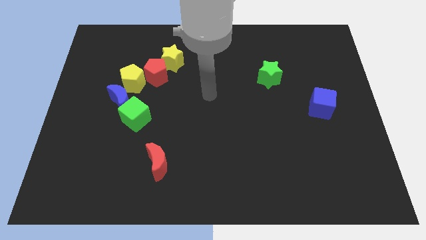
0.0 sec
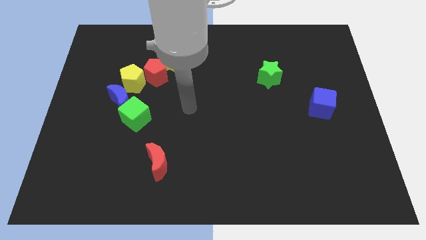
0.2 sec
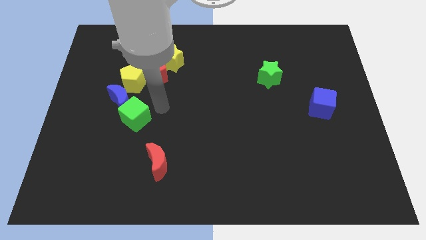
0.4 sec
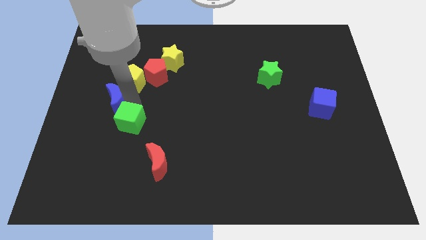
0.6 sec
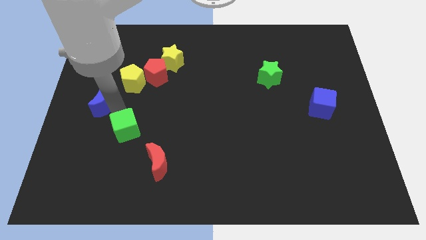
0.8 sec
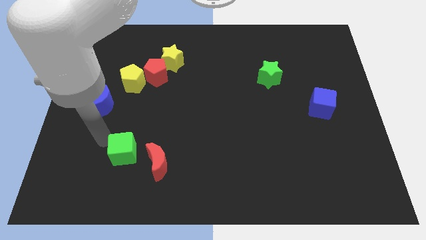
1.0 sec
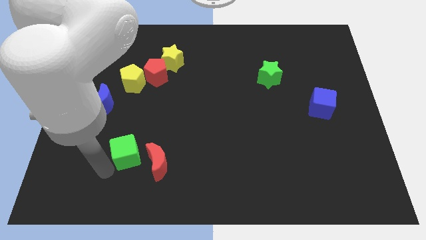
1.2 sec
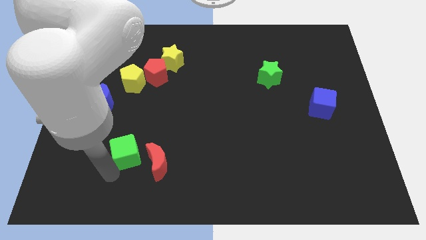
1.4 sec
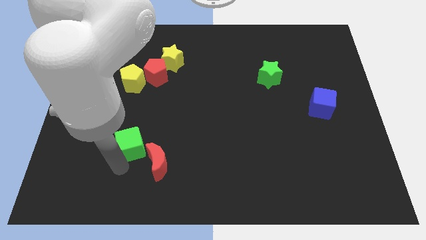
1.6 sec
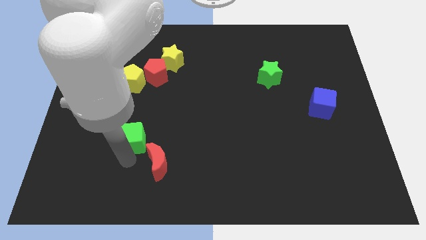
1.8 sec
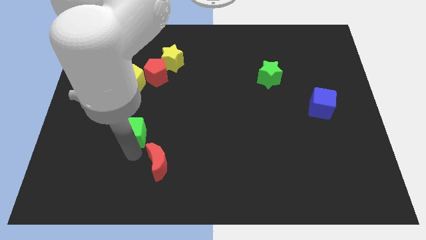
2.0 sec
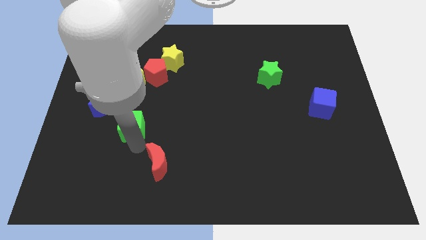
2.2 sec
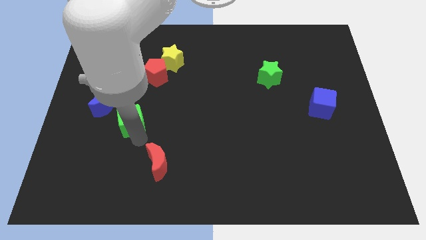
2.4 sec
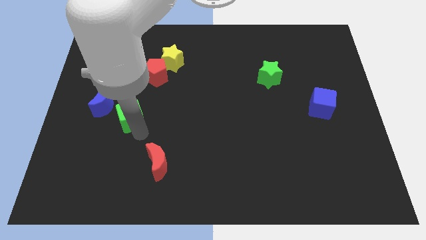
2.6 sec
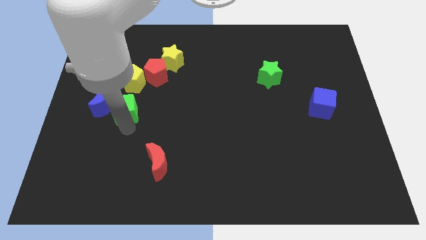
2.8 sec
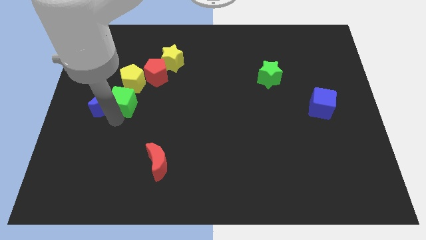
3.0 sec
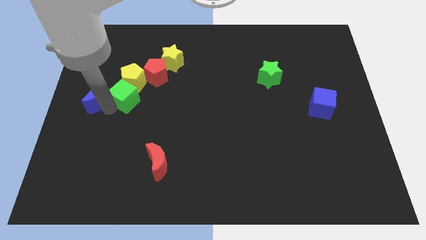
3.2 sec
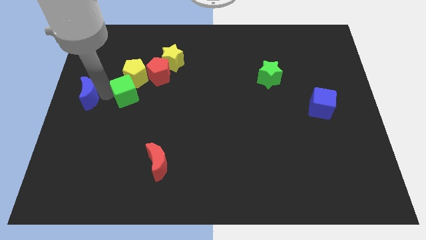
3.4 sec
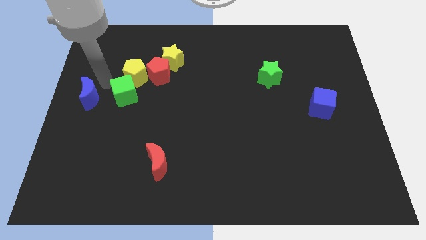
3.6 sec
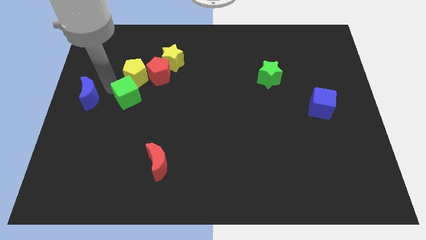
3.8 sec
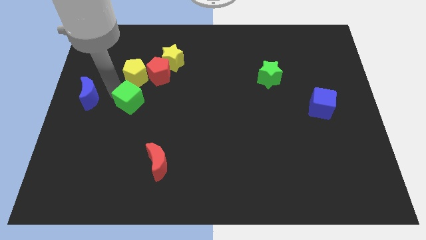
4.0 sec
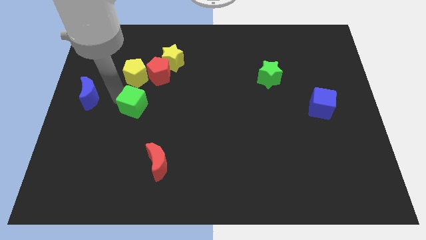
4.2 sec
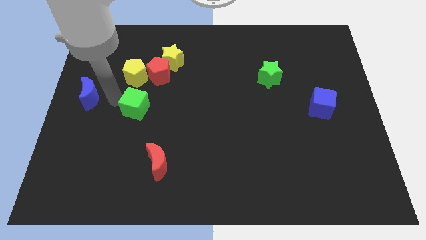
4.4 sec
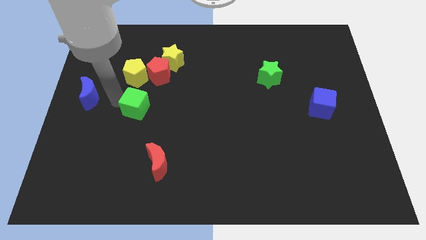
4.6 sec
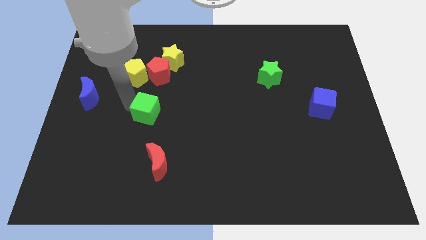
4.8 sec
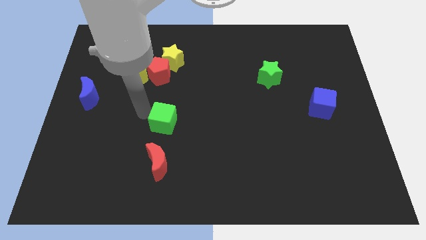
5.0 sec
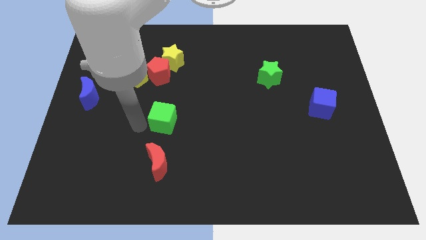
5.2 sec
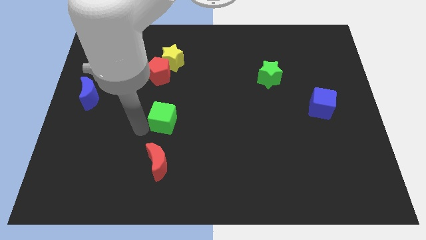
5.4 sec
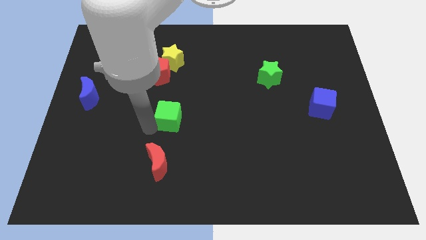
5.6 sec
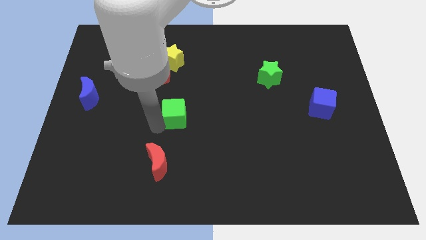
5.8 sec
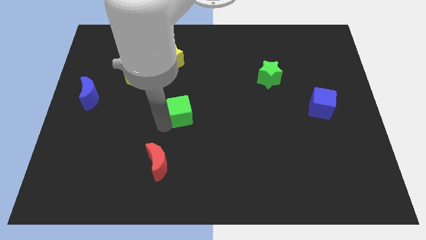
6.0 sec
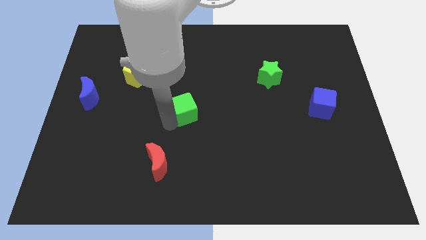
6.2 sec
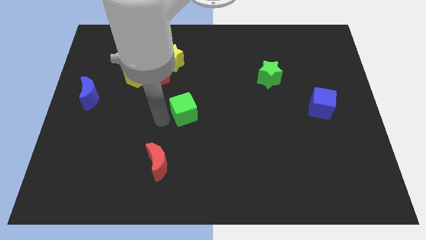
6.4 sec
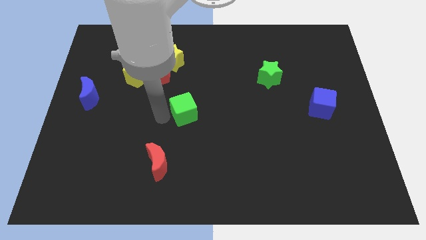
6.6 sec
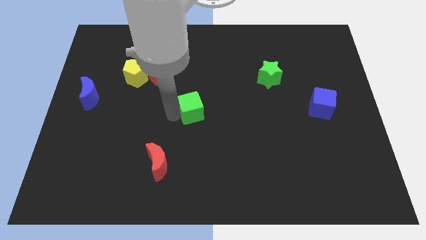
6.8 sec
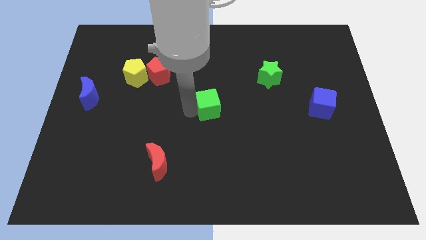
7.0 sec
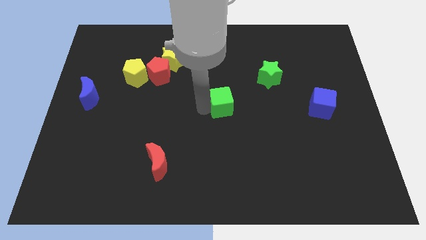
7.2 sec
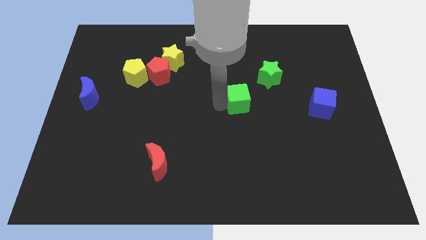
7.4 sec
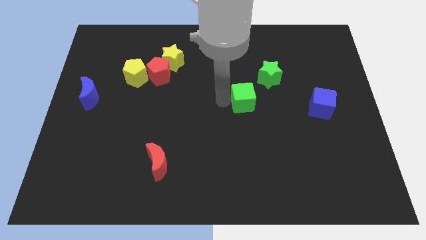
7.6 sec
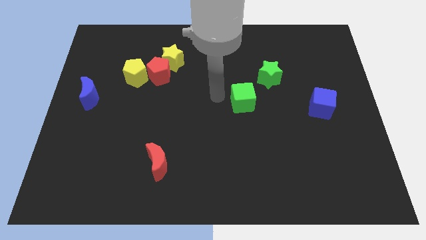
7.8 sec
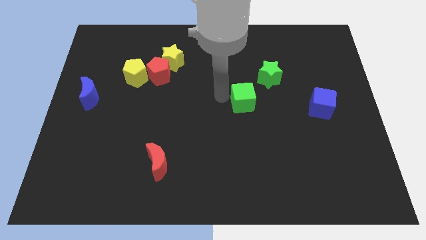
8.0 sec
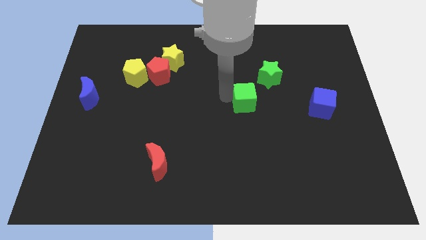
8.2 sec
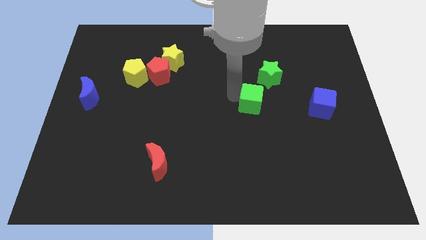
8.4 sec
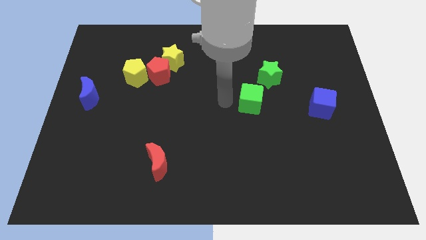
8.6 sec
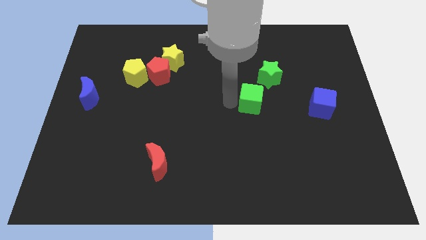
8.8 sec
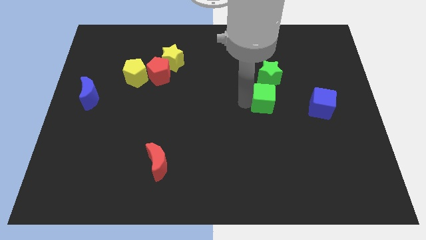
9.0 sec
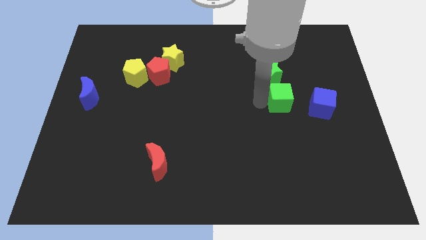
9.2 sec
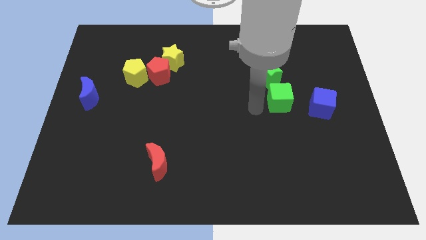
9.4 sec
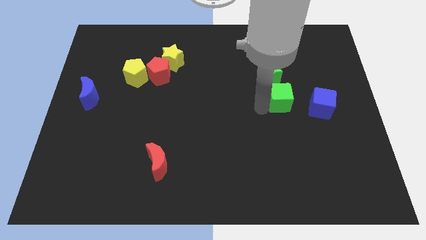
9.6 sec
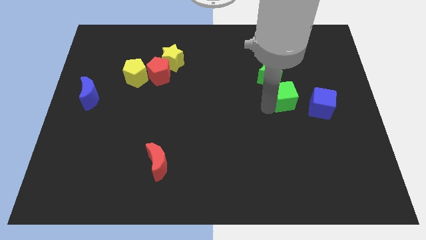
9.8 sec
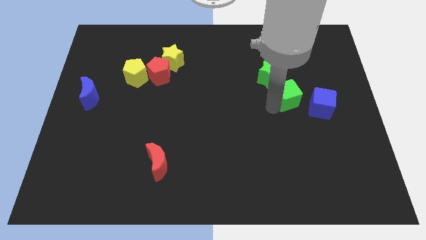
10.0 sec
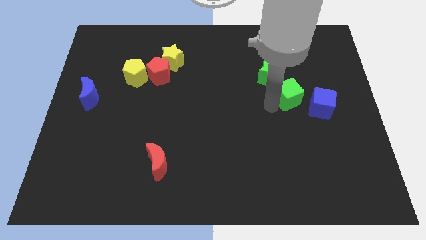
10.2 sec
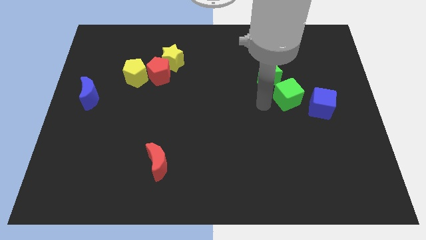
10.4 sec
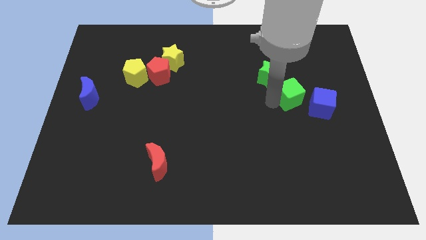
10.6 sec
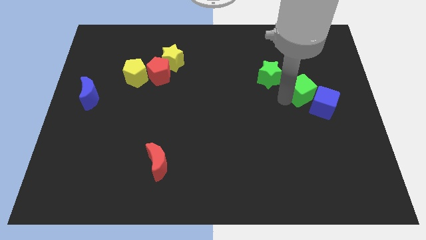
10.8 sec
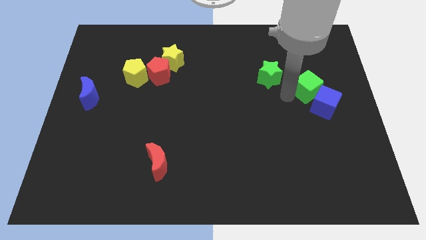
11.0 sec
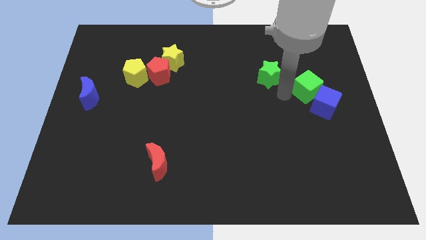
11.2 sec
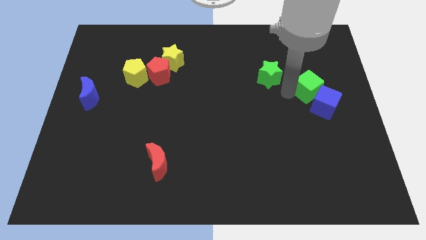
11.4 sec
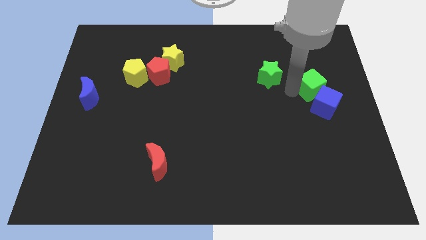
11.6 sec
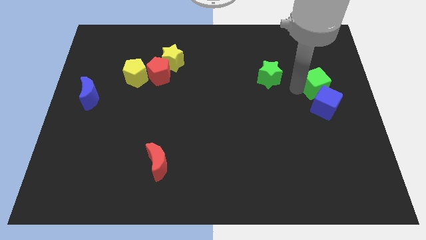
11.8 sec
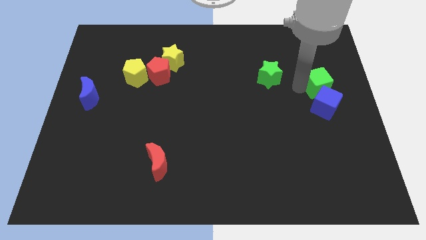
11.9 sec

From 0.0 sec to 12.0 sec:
put the green cube to the right side

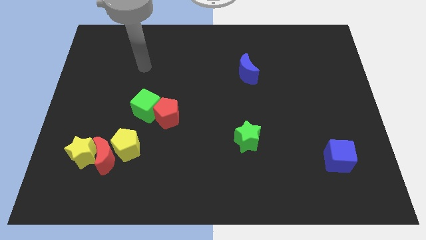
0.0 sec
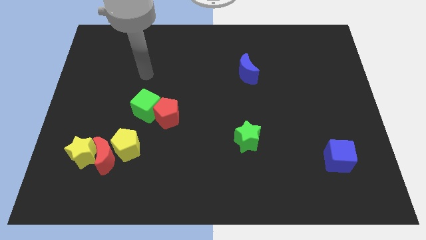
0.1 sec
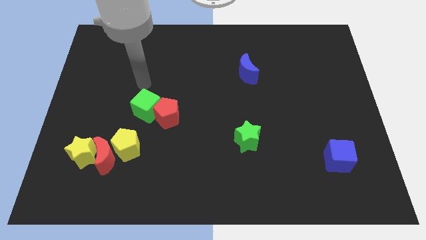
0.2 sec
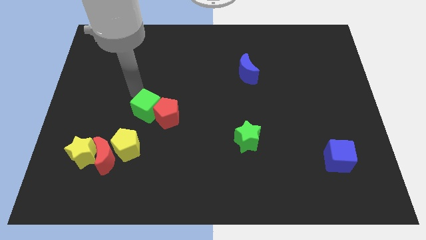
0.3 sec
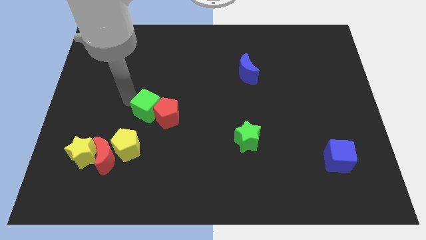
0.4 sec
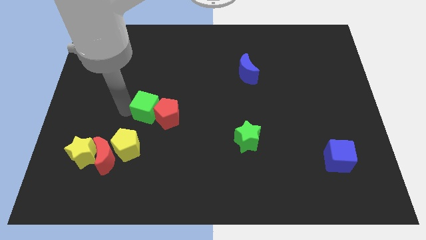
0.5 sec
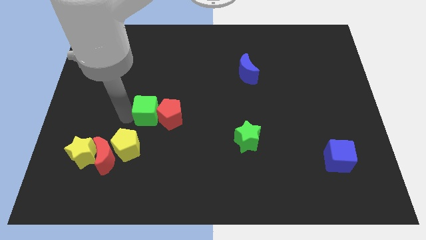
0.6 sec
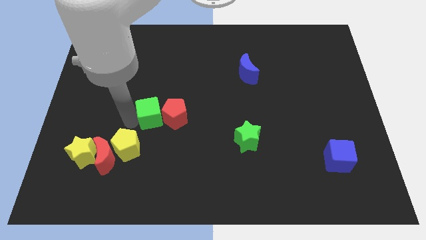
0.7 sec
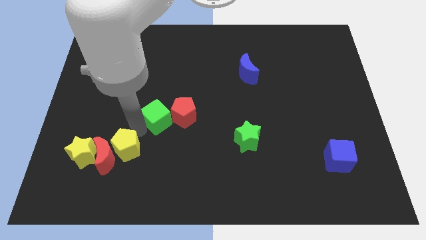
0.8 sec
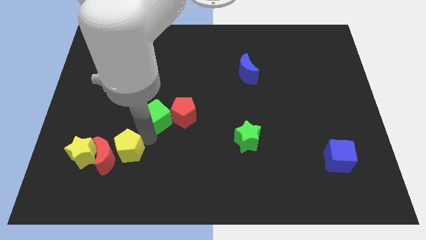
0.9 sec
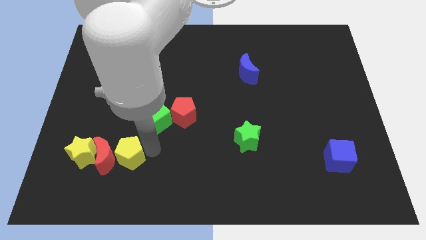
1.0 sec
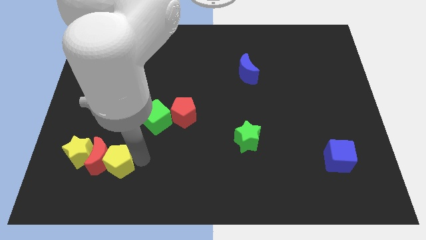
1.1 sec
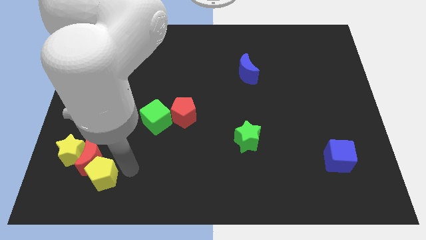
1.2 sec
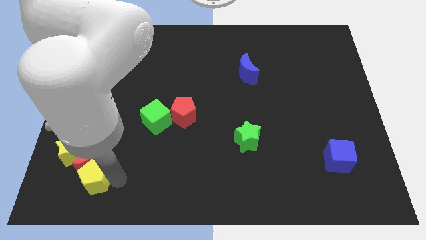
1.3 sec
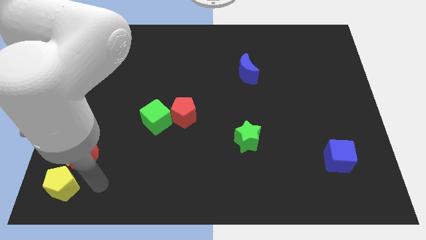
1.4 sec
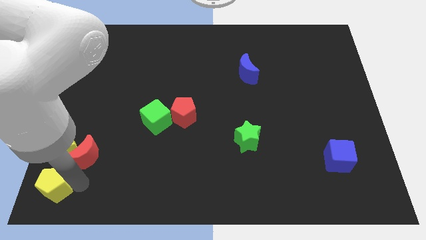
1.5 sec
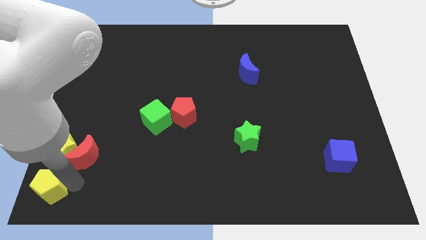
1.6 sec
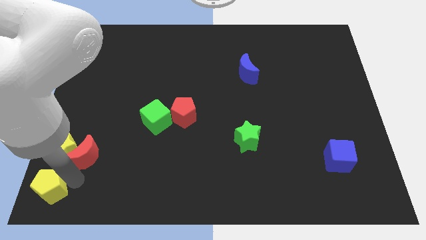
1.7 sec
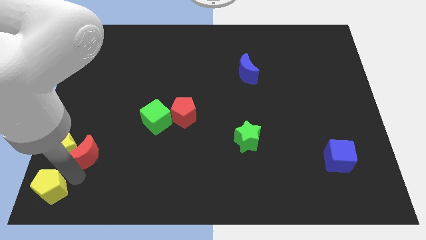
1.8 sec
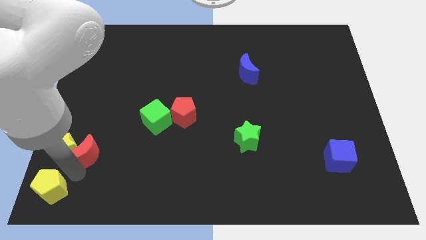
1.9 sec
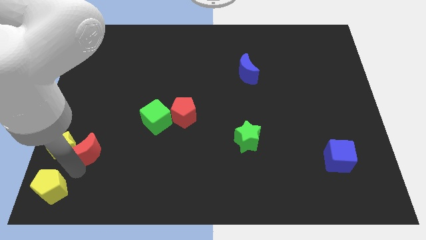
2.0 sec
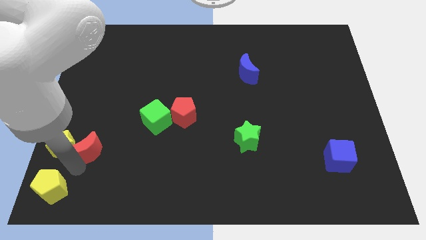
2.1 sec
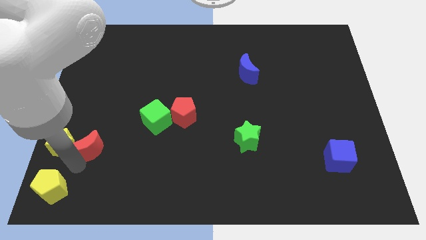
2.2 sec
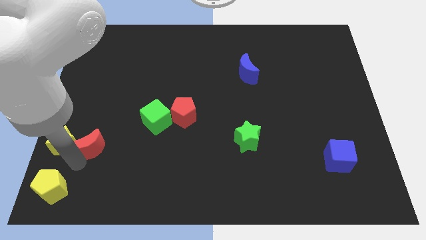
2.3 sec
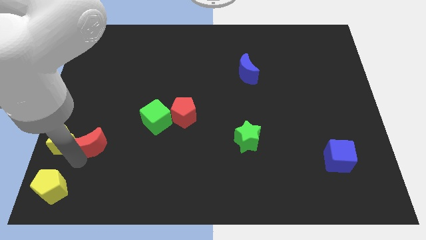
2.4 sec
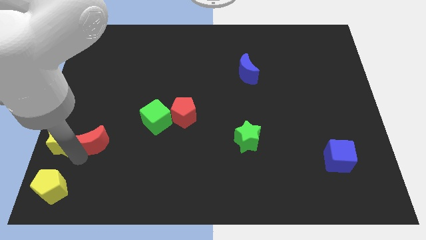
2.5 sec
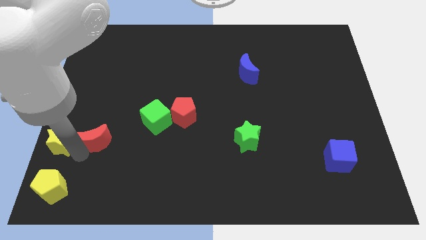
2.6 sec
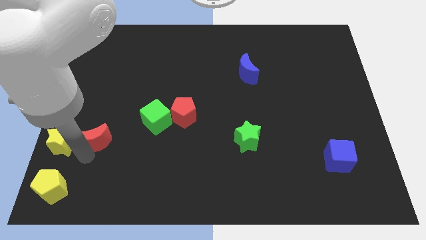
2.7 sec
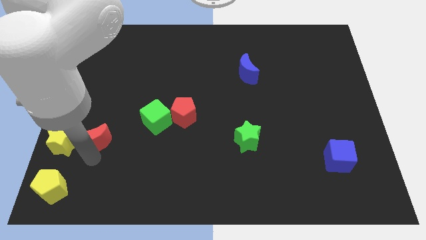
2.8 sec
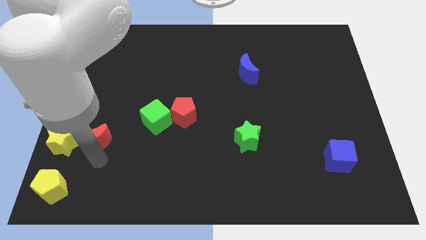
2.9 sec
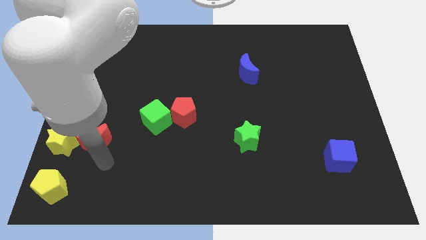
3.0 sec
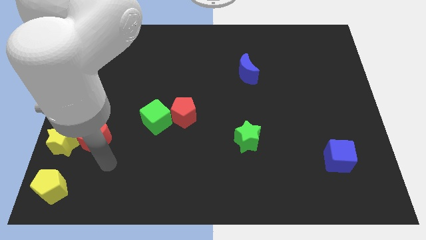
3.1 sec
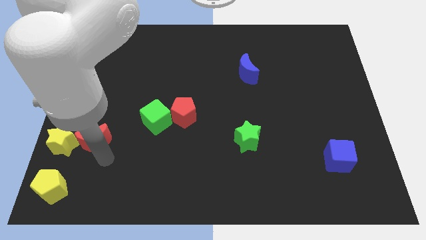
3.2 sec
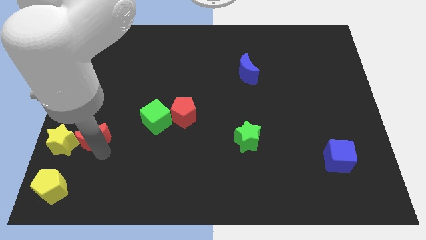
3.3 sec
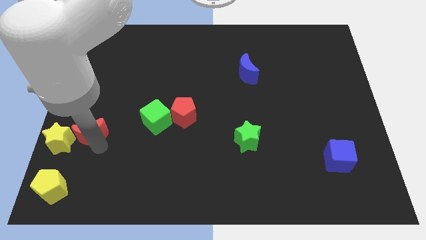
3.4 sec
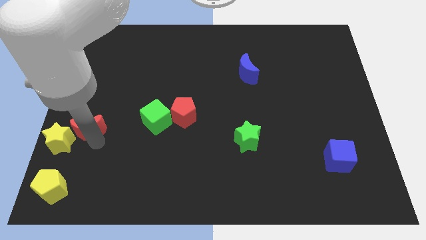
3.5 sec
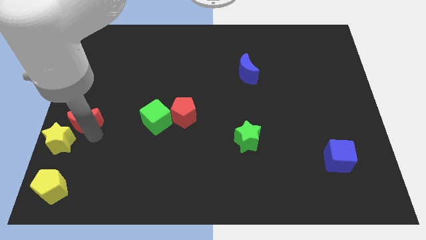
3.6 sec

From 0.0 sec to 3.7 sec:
slide the red moon to the left side
